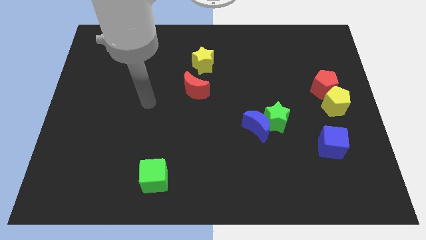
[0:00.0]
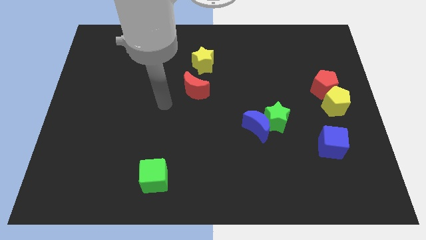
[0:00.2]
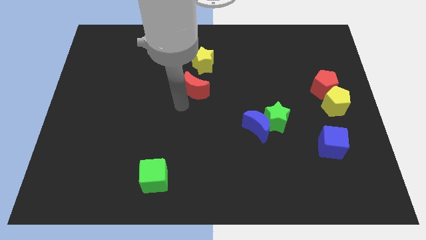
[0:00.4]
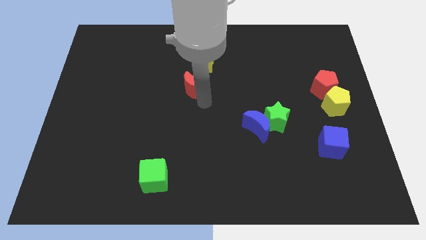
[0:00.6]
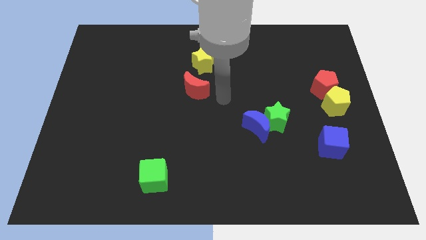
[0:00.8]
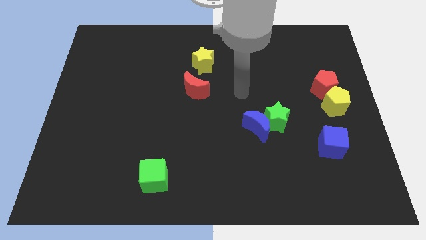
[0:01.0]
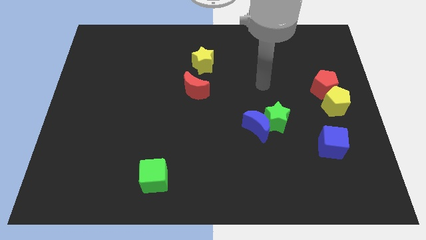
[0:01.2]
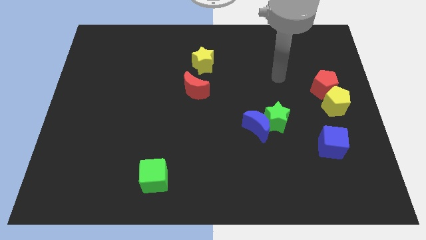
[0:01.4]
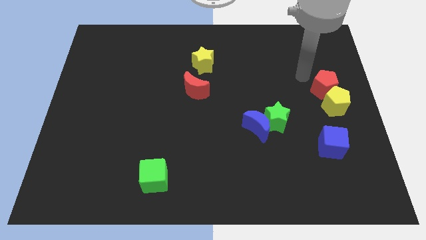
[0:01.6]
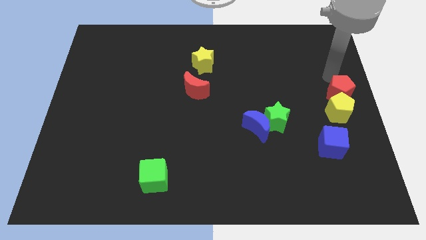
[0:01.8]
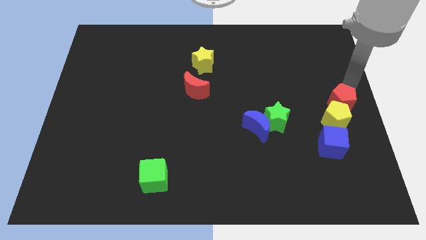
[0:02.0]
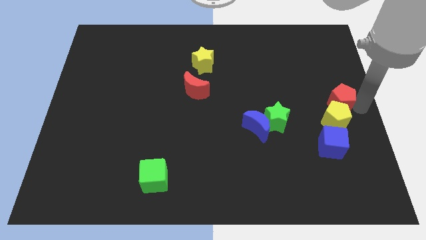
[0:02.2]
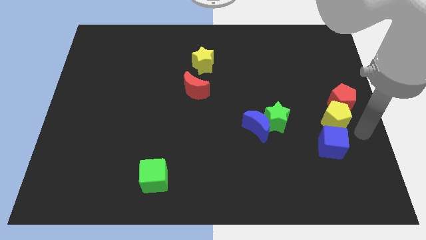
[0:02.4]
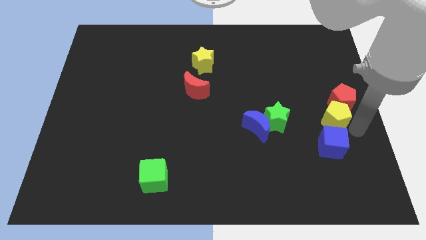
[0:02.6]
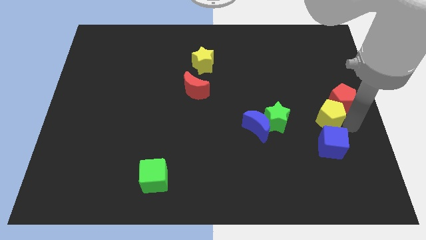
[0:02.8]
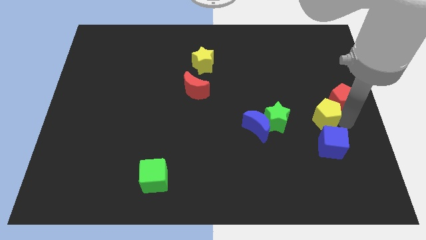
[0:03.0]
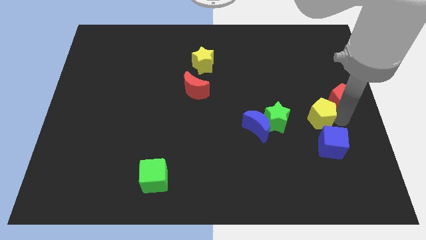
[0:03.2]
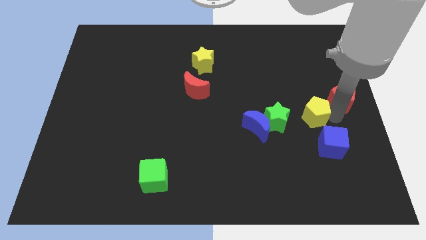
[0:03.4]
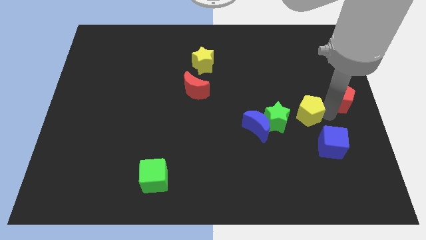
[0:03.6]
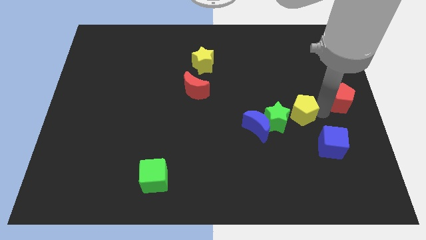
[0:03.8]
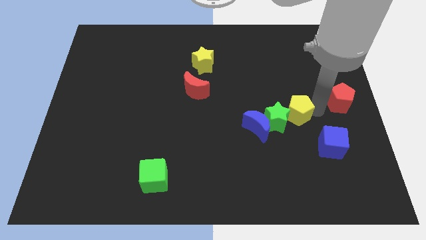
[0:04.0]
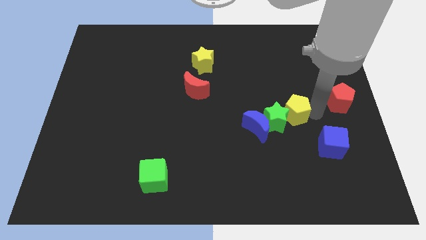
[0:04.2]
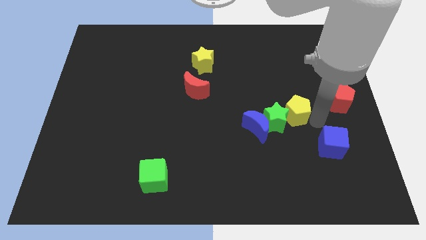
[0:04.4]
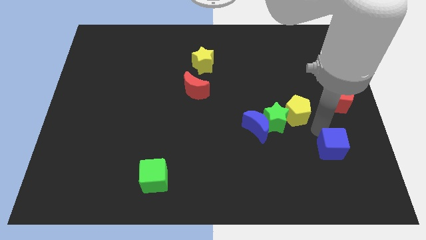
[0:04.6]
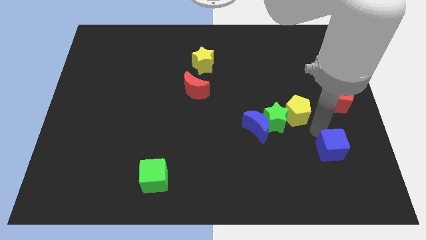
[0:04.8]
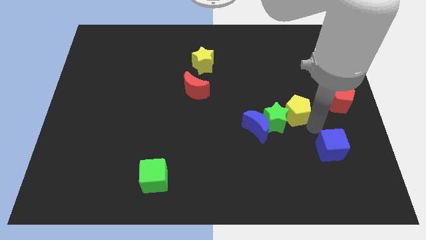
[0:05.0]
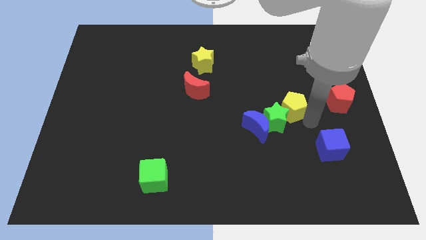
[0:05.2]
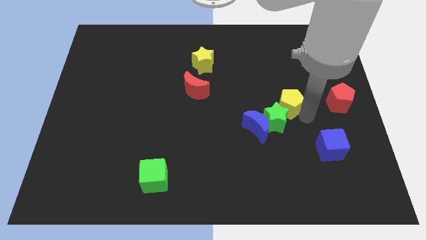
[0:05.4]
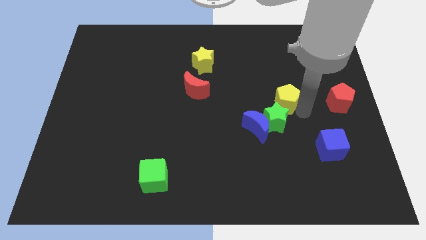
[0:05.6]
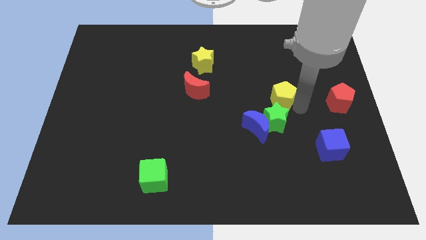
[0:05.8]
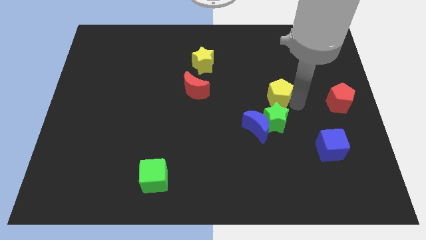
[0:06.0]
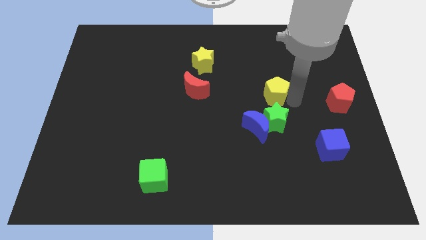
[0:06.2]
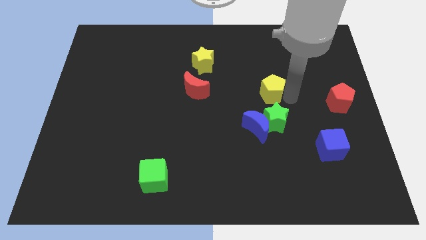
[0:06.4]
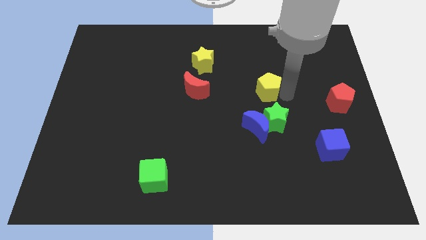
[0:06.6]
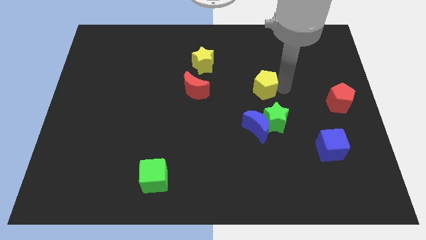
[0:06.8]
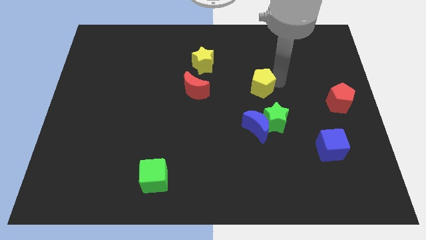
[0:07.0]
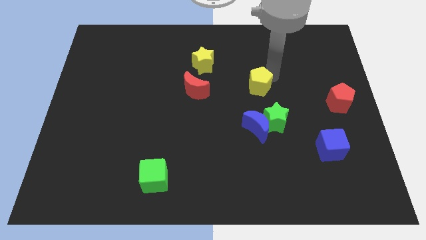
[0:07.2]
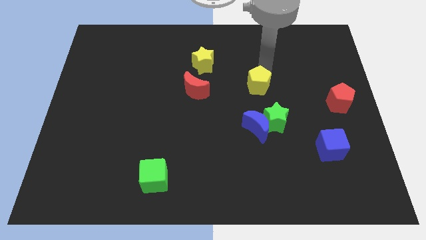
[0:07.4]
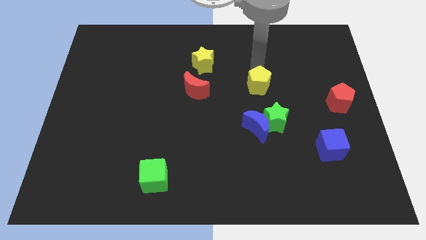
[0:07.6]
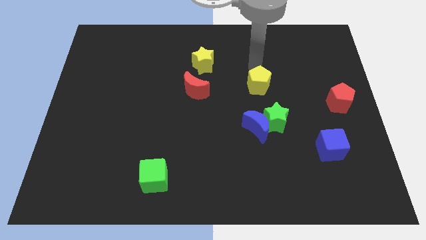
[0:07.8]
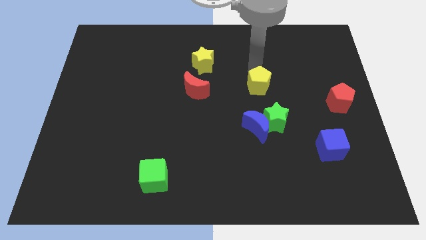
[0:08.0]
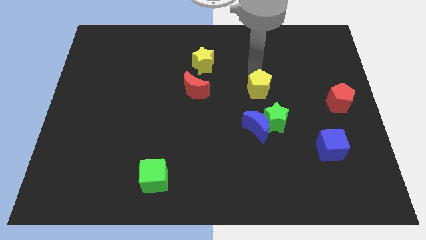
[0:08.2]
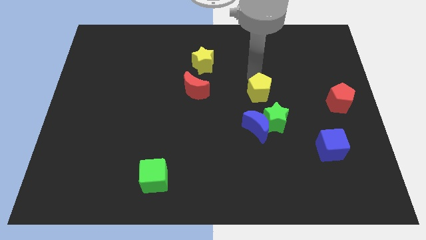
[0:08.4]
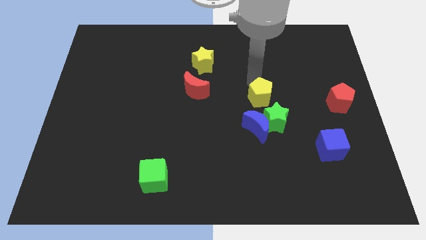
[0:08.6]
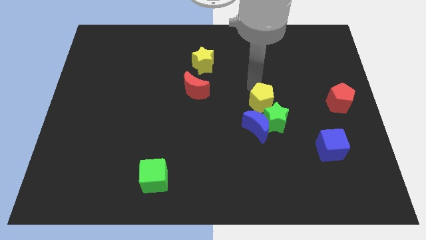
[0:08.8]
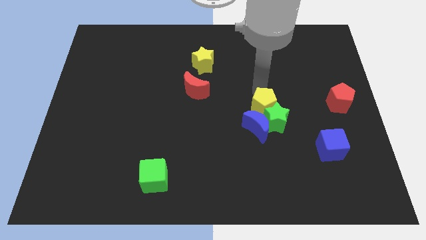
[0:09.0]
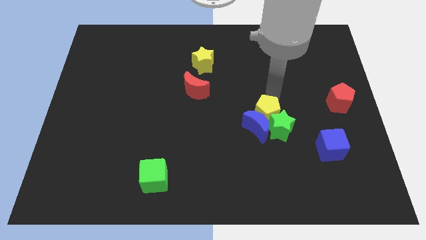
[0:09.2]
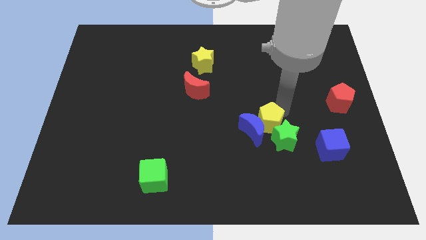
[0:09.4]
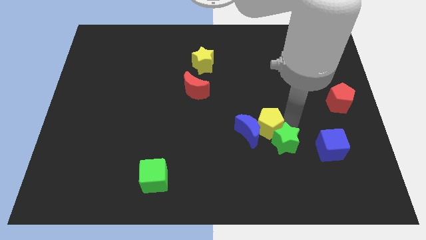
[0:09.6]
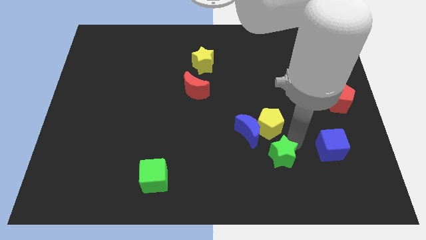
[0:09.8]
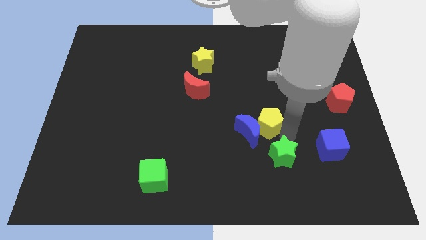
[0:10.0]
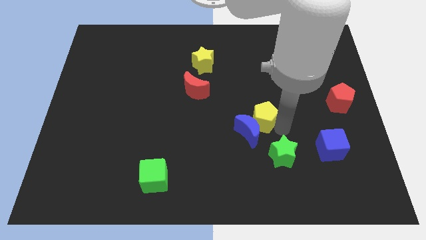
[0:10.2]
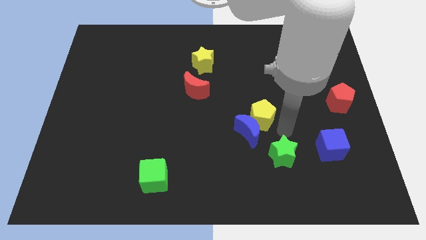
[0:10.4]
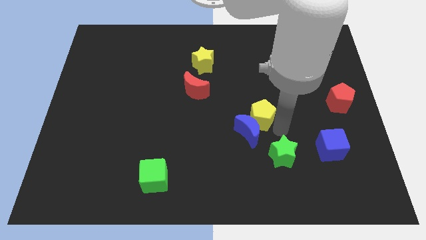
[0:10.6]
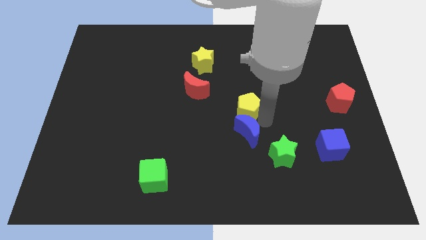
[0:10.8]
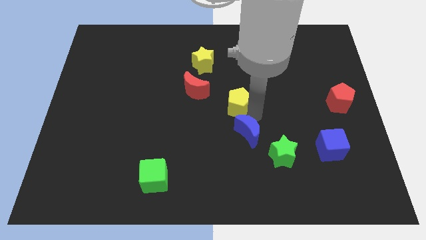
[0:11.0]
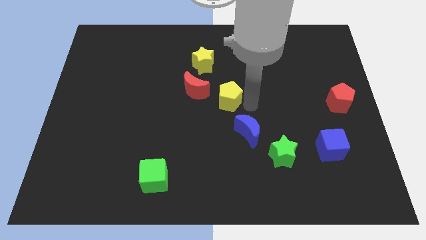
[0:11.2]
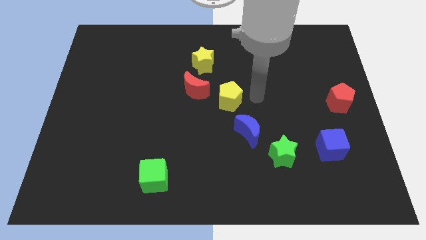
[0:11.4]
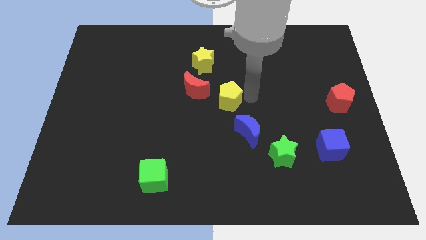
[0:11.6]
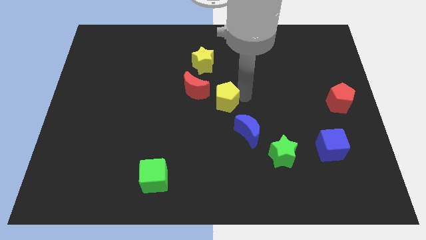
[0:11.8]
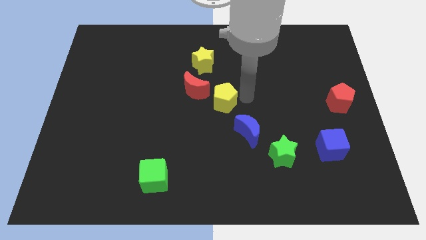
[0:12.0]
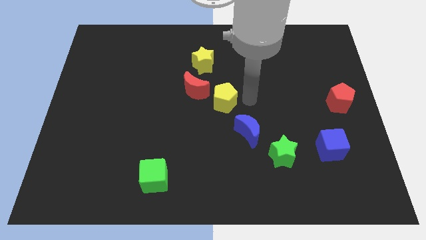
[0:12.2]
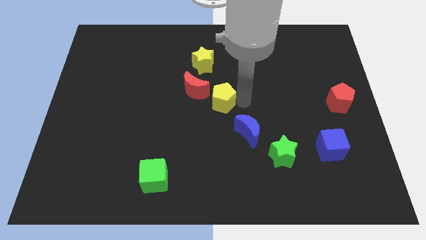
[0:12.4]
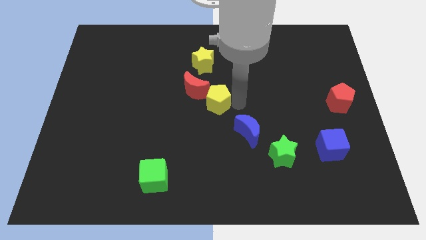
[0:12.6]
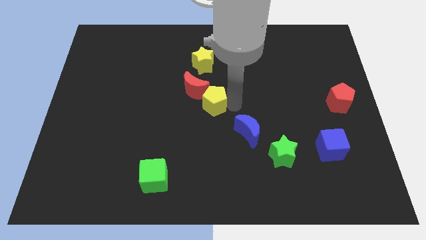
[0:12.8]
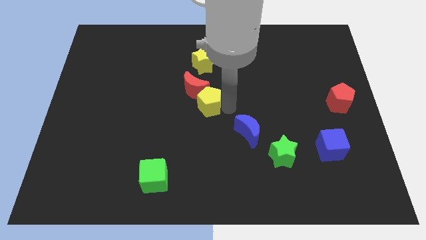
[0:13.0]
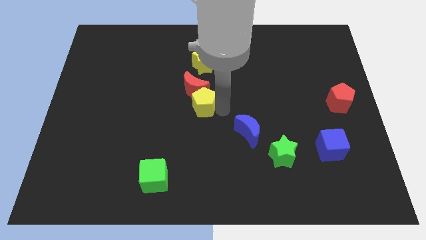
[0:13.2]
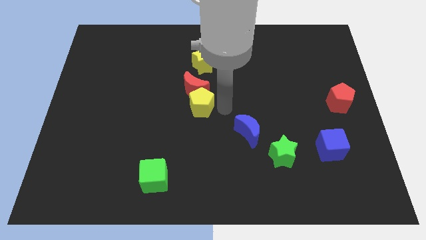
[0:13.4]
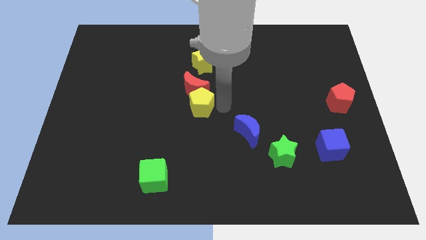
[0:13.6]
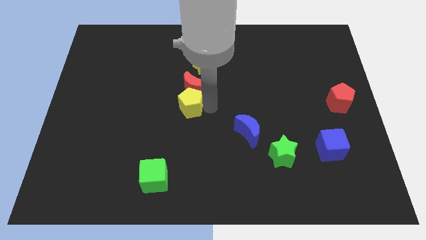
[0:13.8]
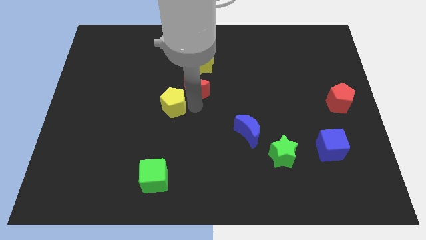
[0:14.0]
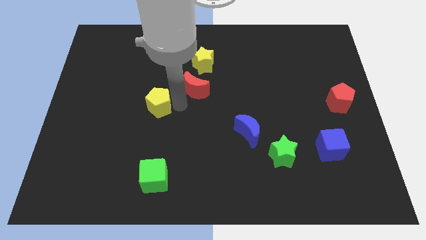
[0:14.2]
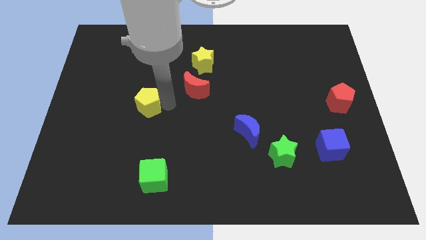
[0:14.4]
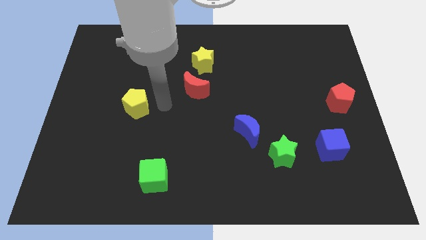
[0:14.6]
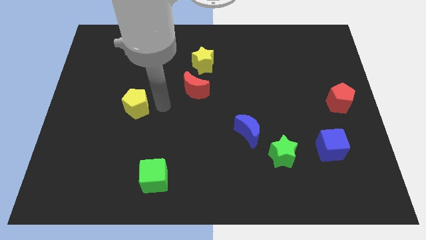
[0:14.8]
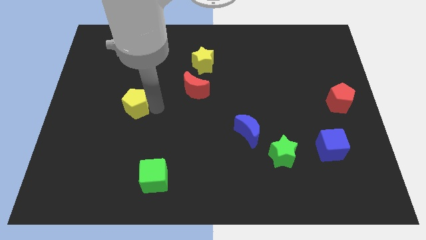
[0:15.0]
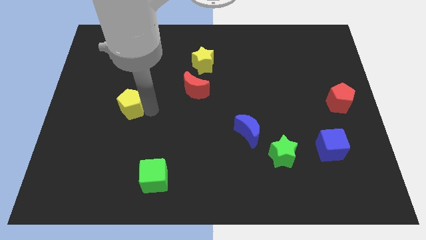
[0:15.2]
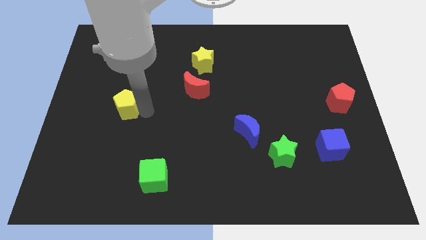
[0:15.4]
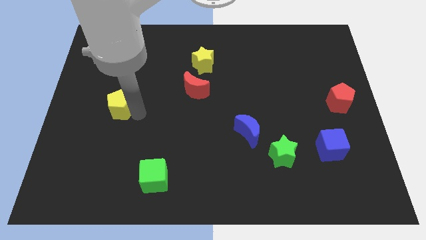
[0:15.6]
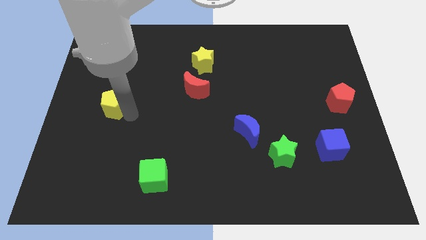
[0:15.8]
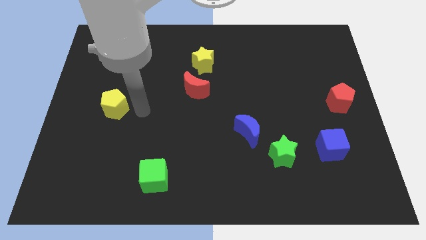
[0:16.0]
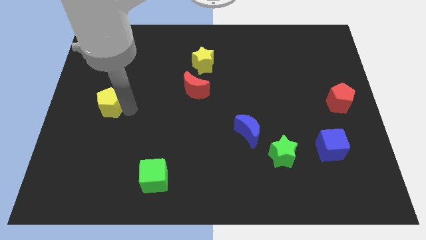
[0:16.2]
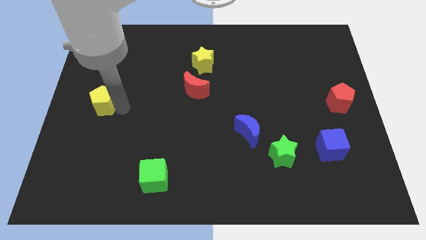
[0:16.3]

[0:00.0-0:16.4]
slide the yellow pentagon to the center left
